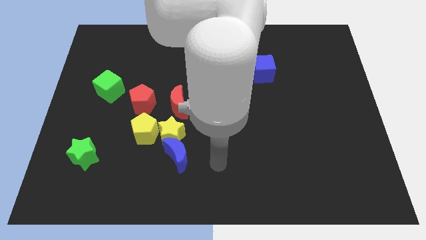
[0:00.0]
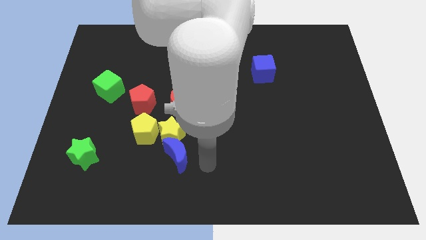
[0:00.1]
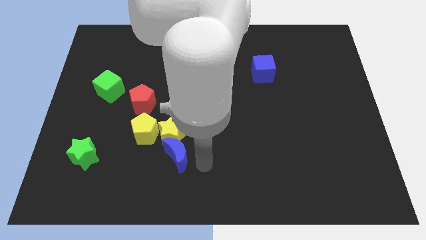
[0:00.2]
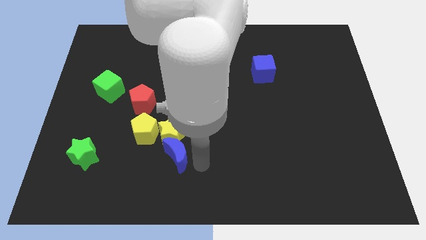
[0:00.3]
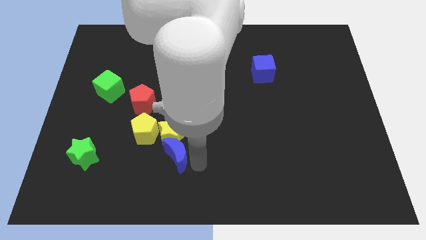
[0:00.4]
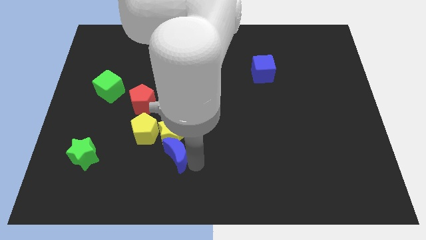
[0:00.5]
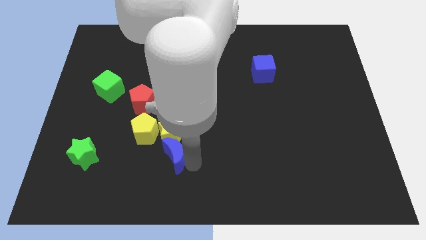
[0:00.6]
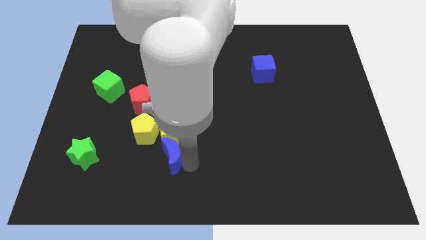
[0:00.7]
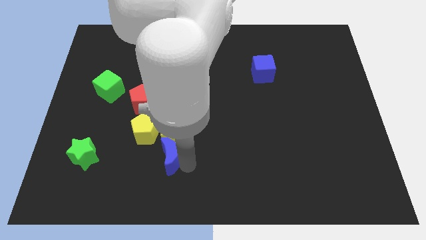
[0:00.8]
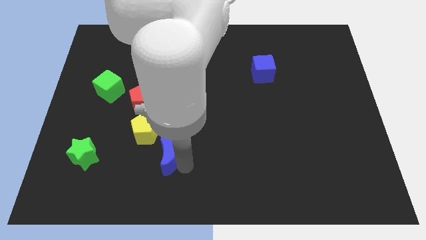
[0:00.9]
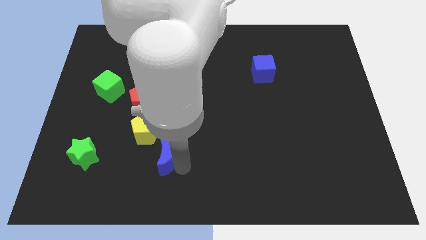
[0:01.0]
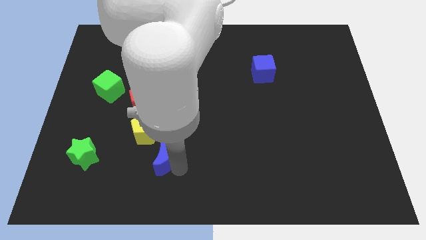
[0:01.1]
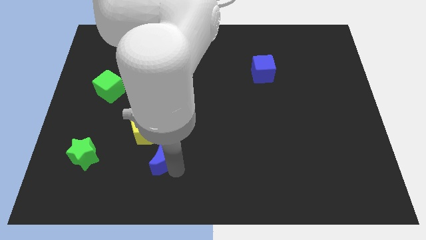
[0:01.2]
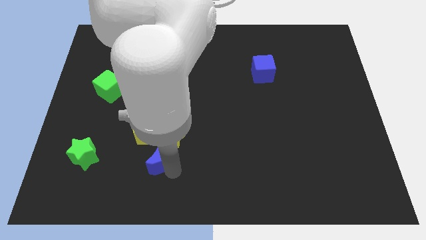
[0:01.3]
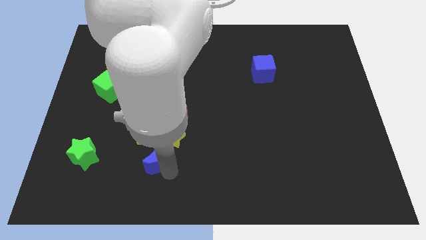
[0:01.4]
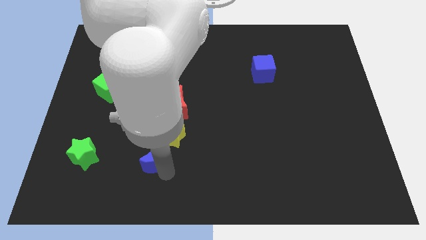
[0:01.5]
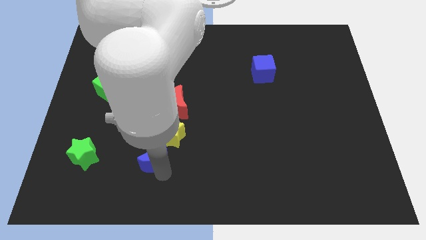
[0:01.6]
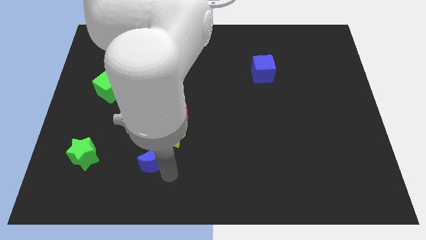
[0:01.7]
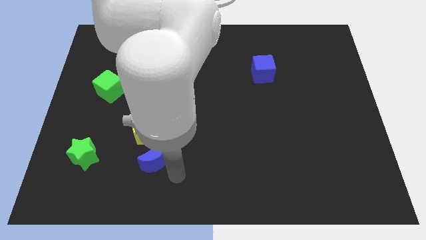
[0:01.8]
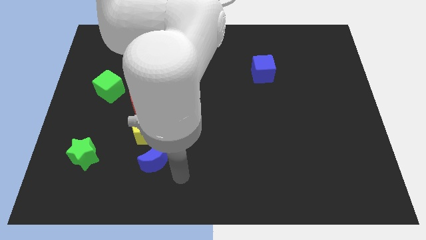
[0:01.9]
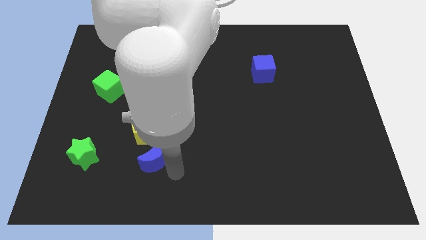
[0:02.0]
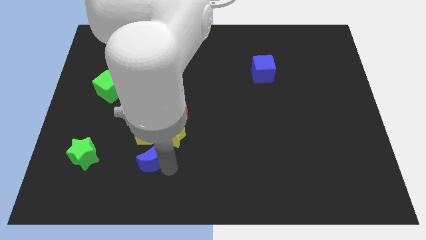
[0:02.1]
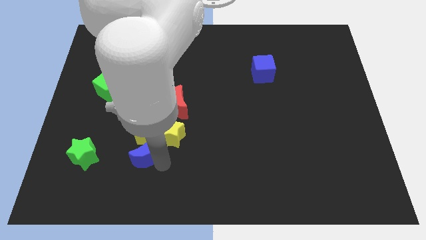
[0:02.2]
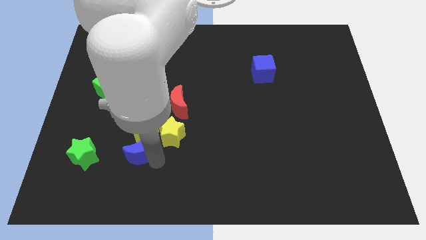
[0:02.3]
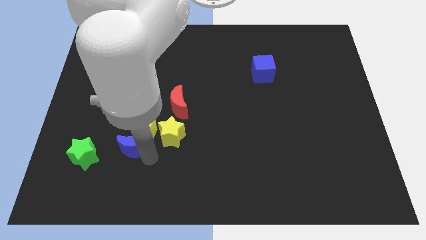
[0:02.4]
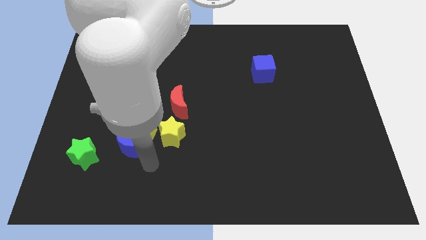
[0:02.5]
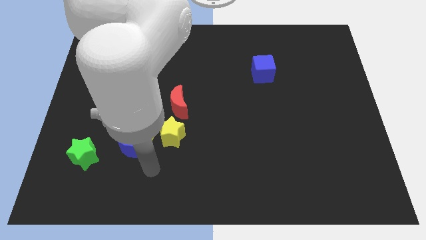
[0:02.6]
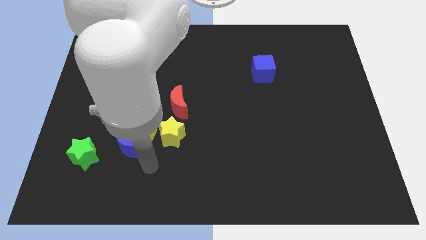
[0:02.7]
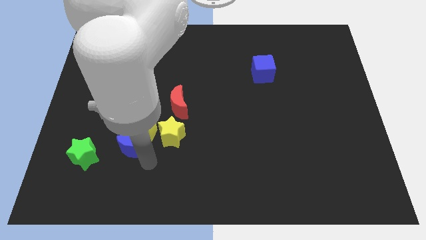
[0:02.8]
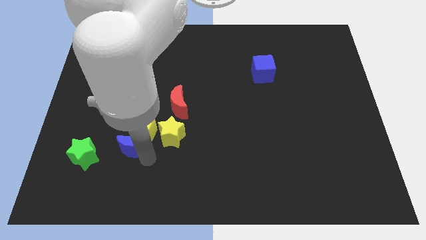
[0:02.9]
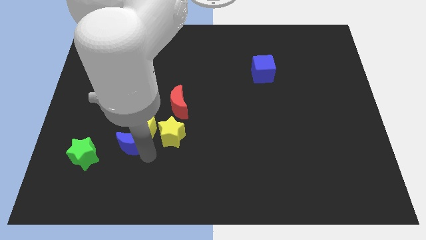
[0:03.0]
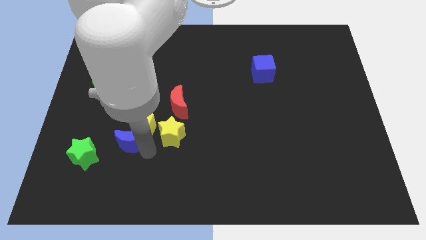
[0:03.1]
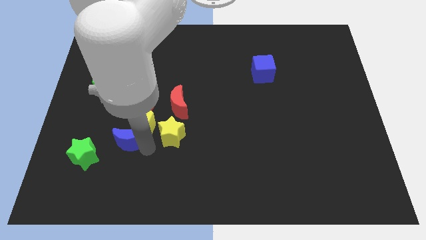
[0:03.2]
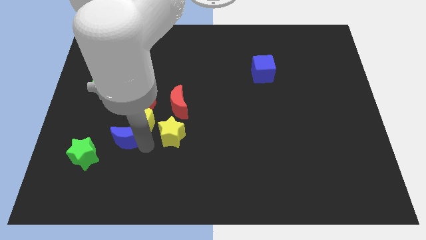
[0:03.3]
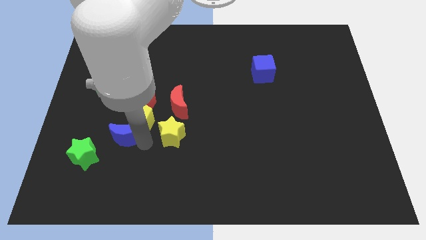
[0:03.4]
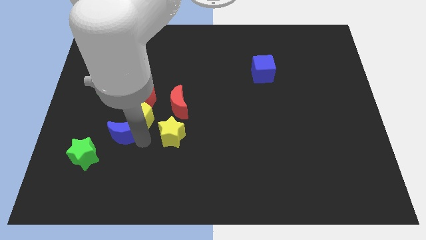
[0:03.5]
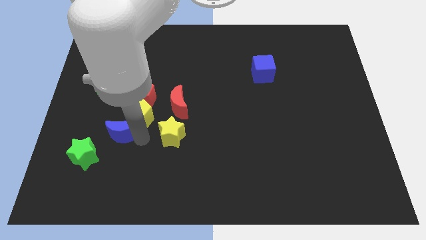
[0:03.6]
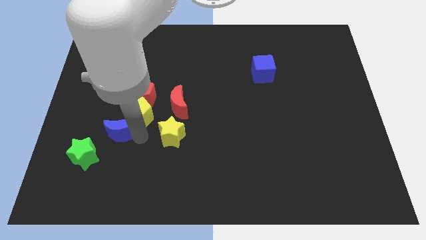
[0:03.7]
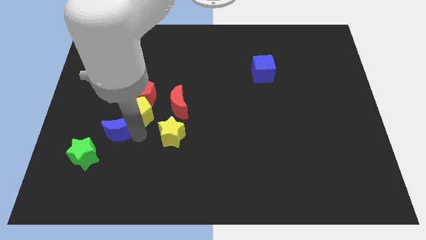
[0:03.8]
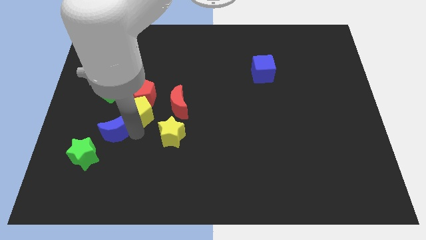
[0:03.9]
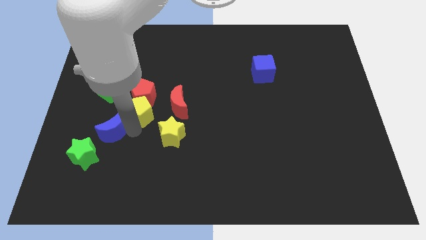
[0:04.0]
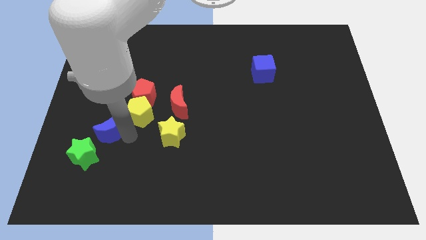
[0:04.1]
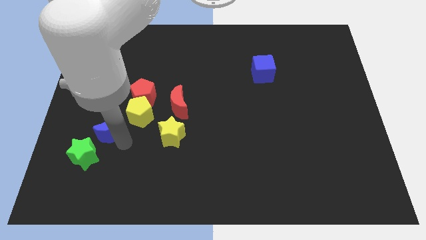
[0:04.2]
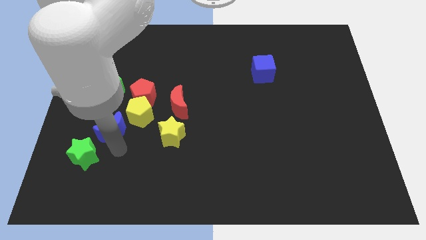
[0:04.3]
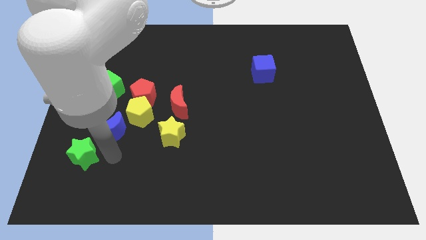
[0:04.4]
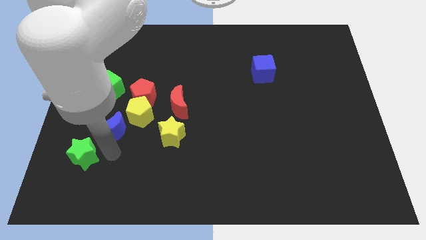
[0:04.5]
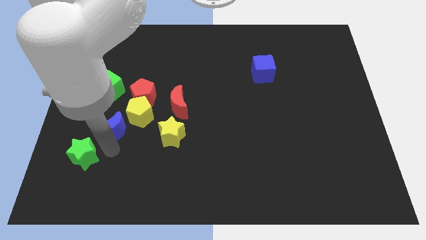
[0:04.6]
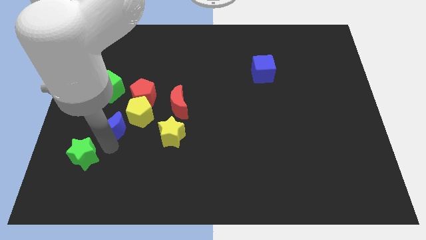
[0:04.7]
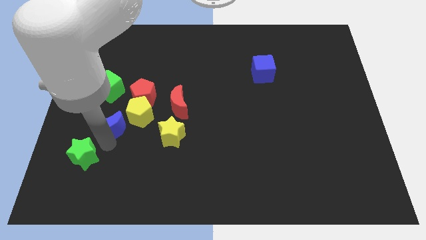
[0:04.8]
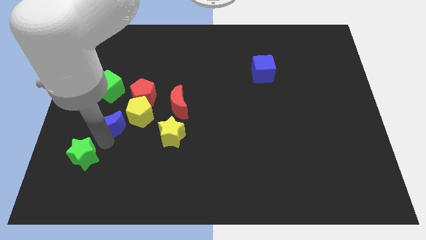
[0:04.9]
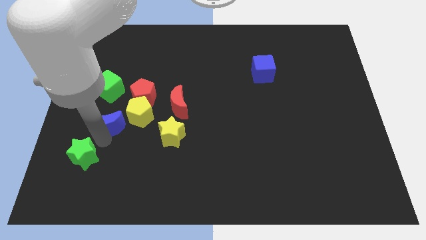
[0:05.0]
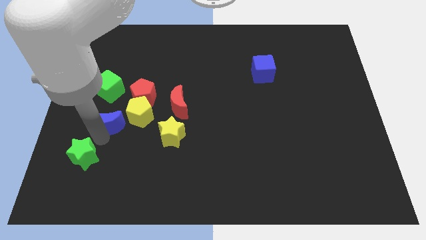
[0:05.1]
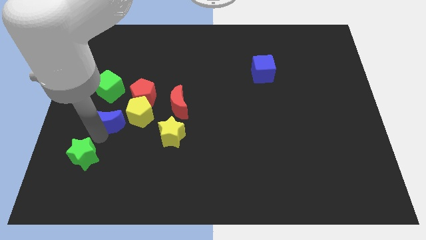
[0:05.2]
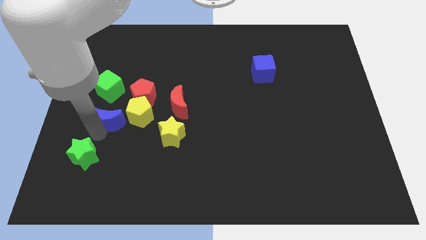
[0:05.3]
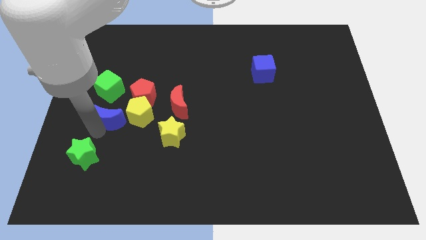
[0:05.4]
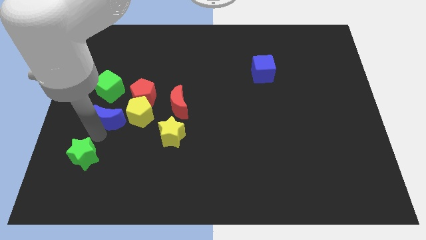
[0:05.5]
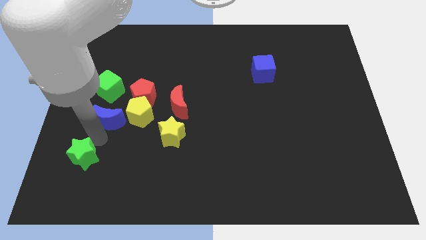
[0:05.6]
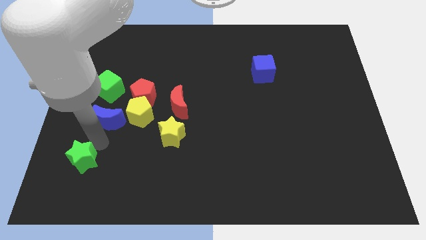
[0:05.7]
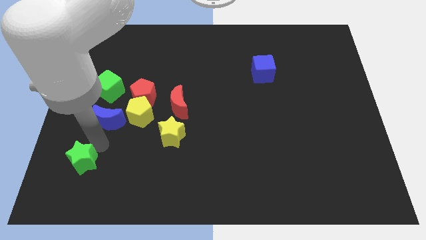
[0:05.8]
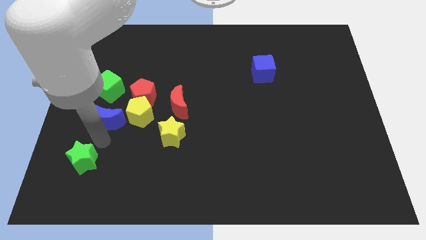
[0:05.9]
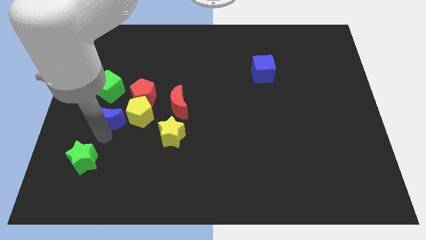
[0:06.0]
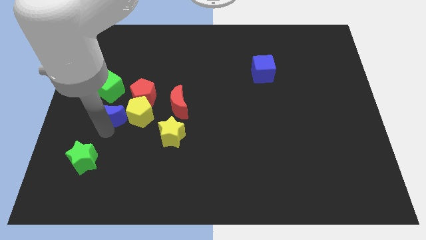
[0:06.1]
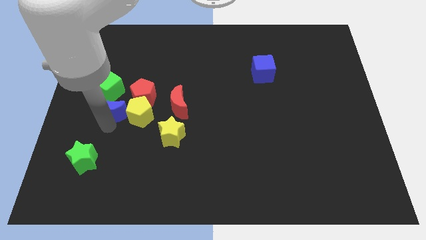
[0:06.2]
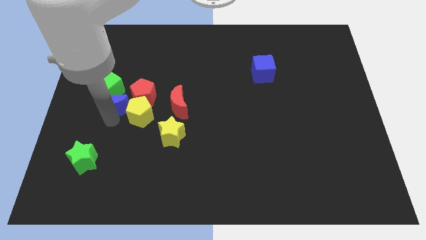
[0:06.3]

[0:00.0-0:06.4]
slide the blue moon close to the green cube

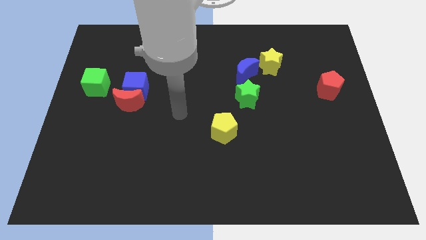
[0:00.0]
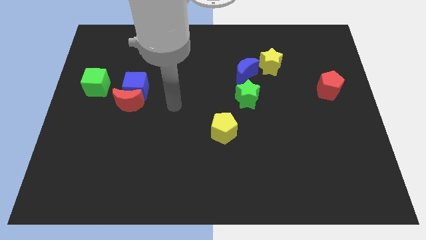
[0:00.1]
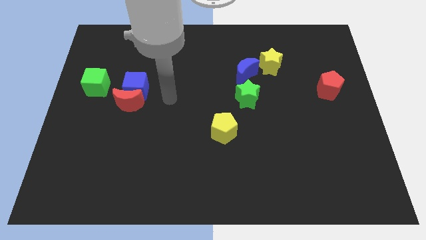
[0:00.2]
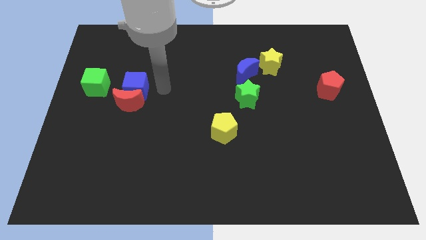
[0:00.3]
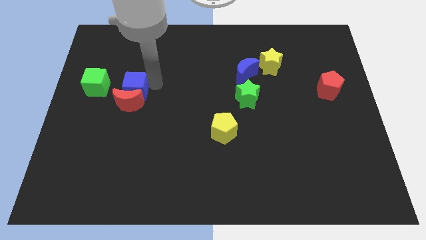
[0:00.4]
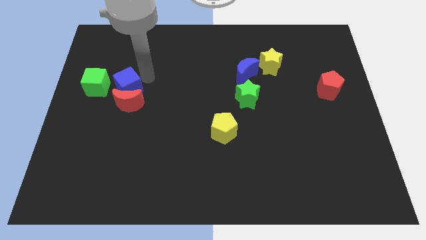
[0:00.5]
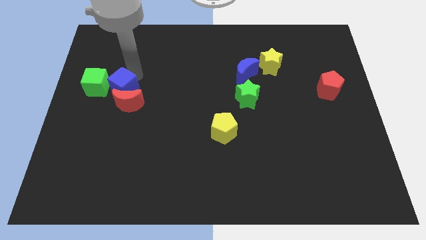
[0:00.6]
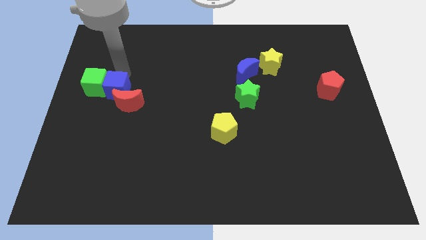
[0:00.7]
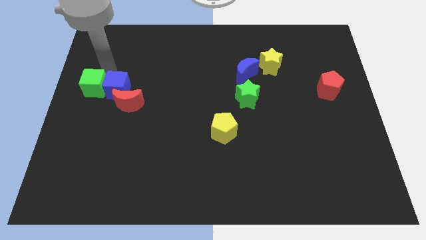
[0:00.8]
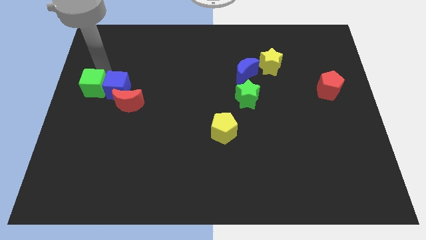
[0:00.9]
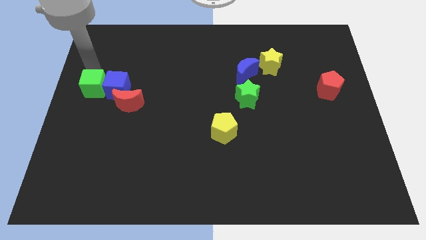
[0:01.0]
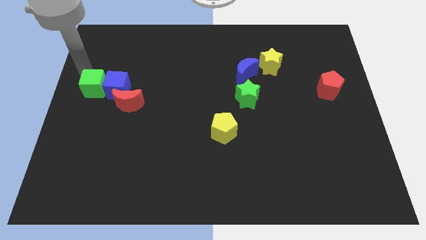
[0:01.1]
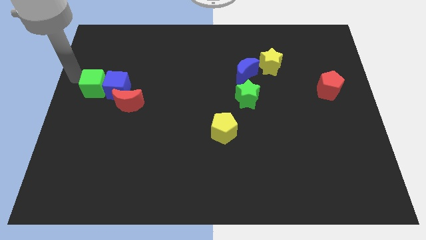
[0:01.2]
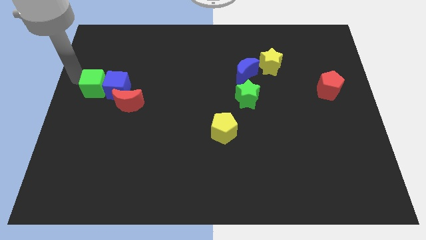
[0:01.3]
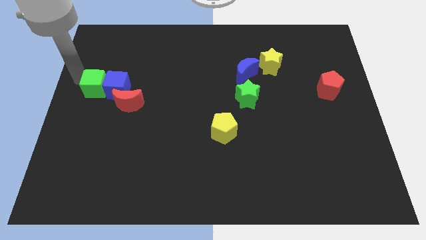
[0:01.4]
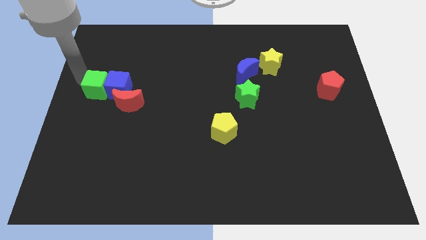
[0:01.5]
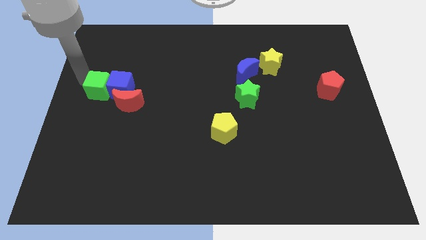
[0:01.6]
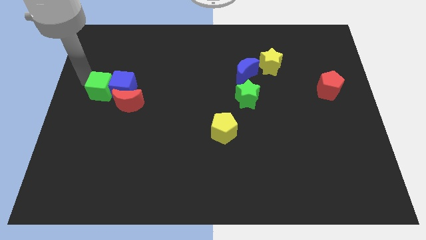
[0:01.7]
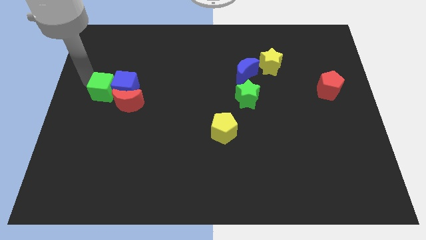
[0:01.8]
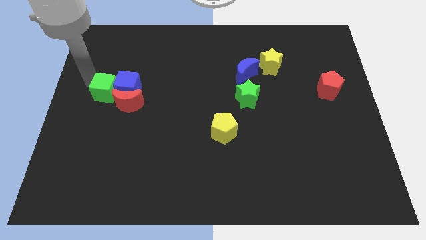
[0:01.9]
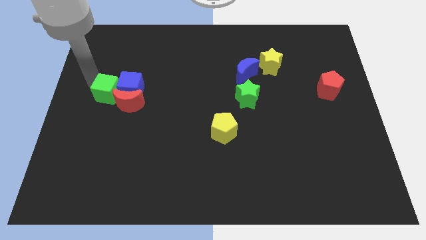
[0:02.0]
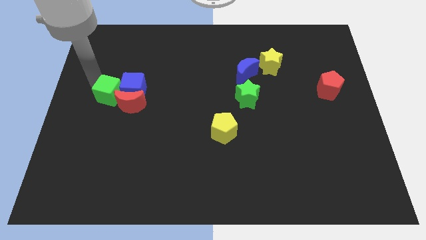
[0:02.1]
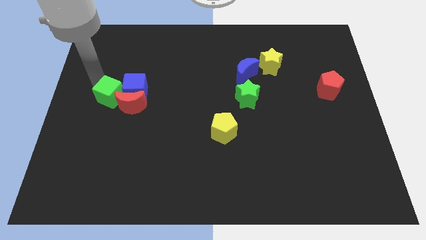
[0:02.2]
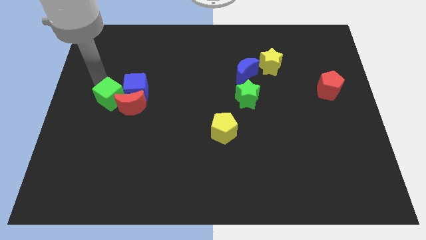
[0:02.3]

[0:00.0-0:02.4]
push the green cube towards the red moon
